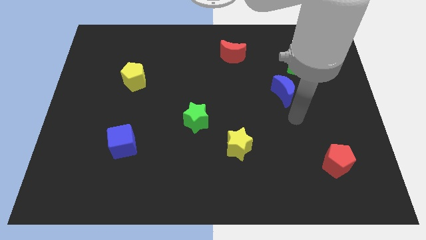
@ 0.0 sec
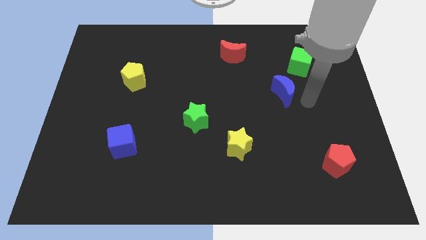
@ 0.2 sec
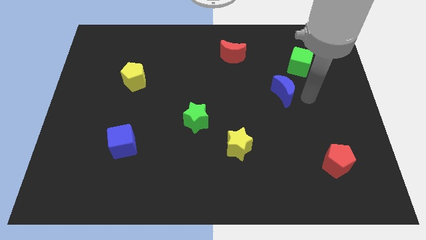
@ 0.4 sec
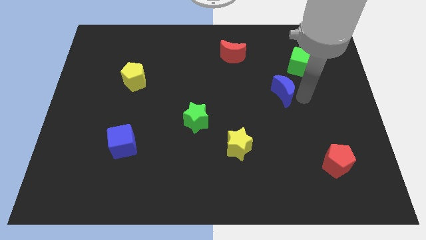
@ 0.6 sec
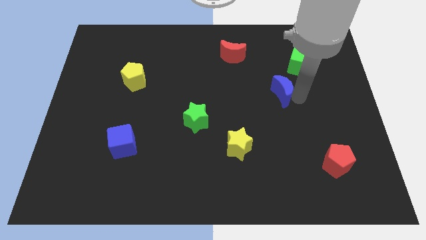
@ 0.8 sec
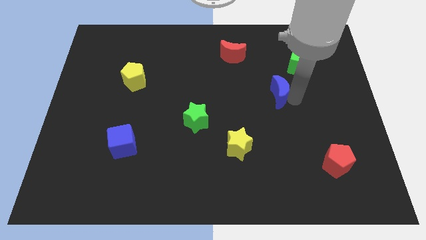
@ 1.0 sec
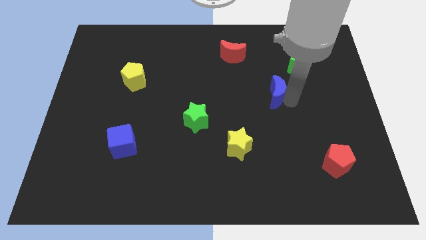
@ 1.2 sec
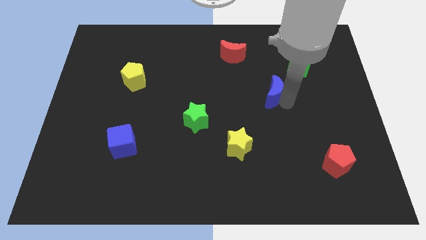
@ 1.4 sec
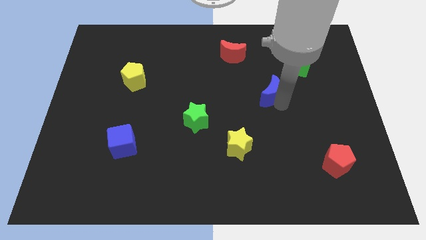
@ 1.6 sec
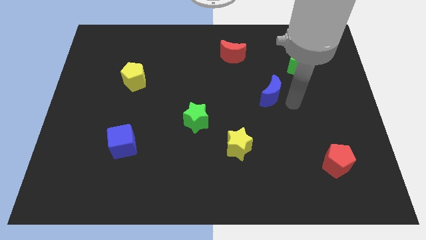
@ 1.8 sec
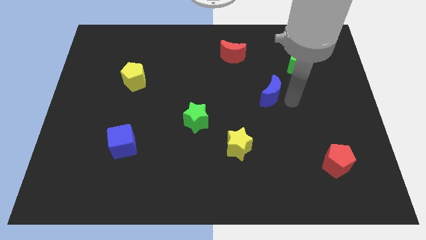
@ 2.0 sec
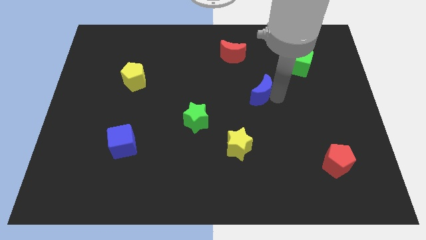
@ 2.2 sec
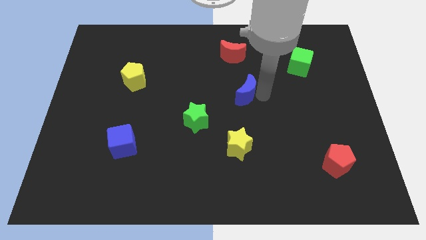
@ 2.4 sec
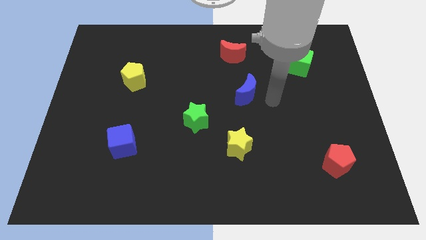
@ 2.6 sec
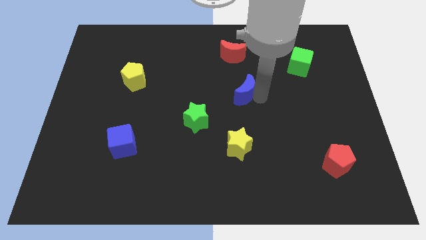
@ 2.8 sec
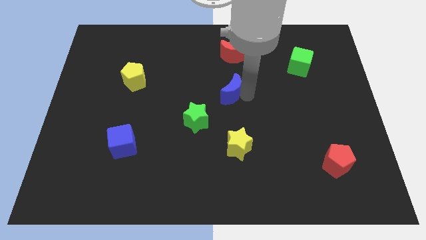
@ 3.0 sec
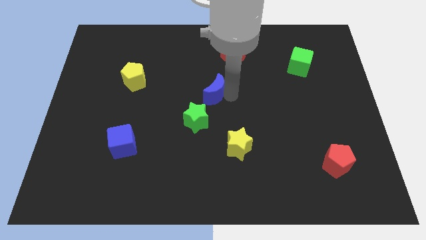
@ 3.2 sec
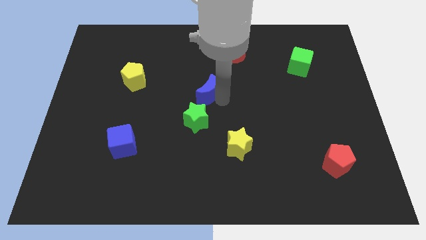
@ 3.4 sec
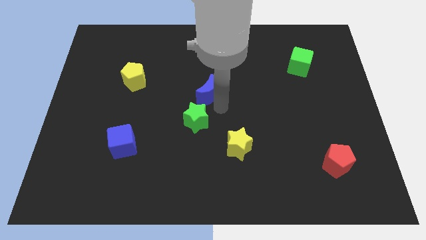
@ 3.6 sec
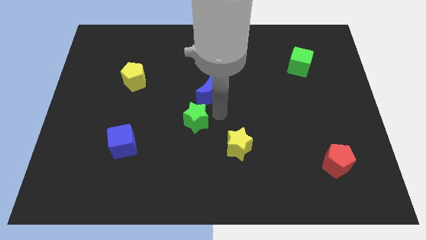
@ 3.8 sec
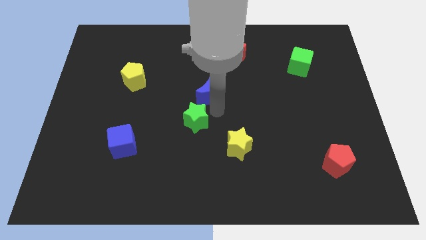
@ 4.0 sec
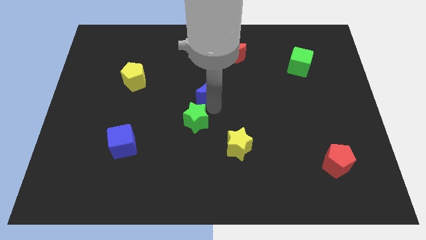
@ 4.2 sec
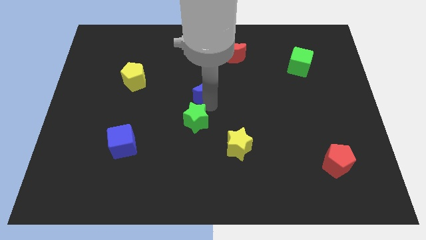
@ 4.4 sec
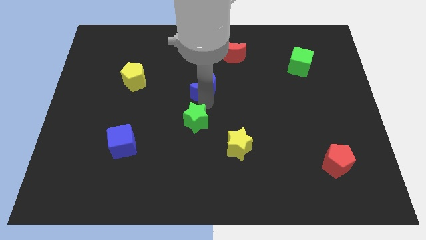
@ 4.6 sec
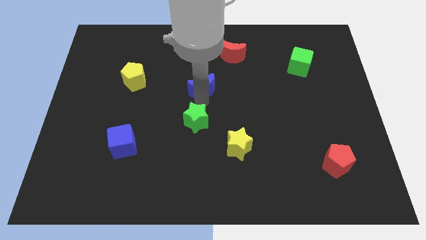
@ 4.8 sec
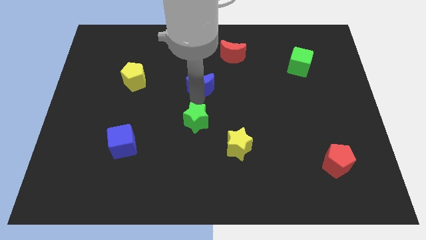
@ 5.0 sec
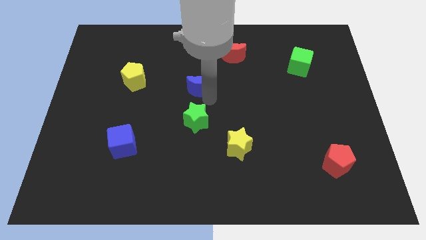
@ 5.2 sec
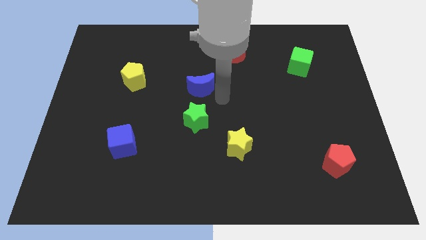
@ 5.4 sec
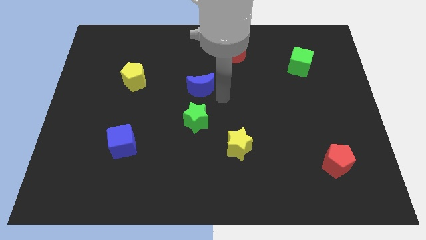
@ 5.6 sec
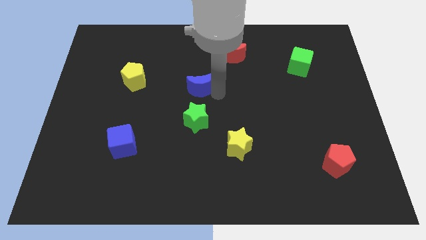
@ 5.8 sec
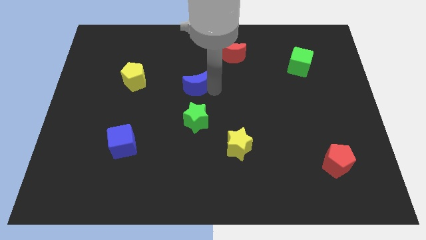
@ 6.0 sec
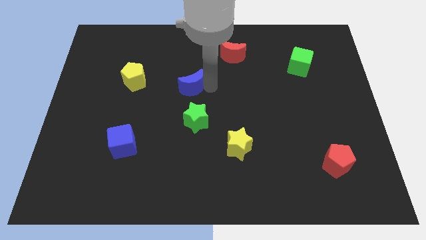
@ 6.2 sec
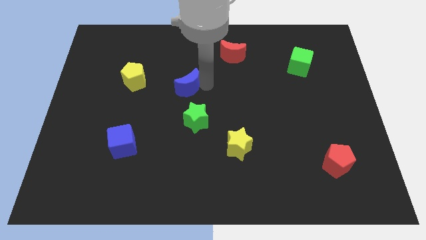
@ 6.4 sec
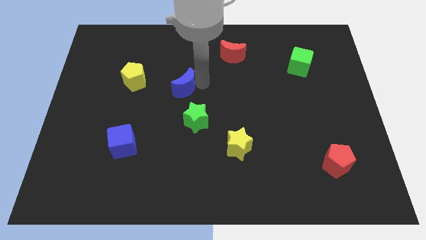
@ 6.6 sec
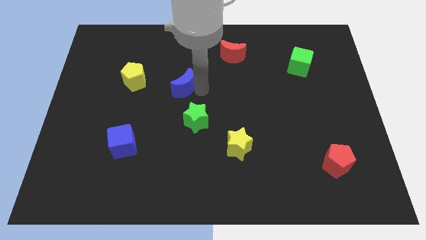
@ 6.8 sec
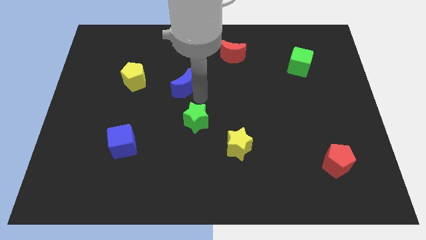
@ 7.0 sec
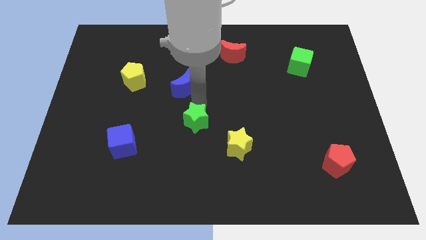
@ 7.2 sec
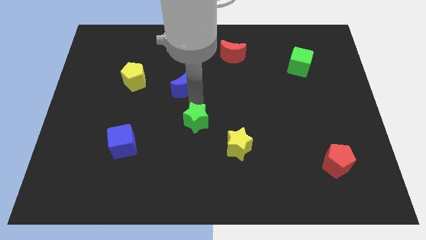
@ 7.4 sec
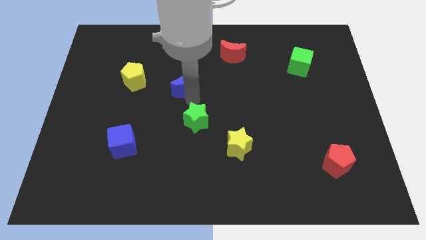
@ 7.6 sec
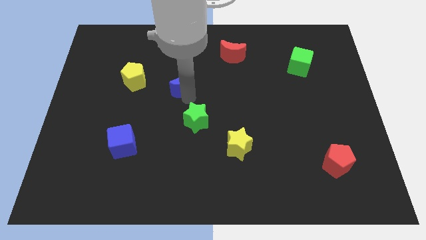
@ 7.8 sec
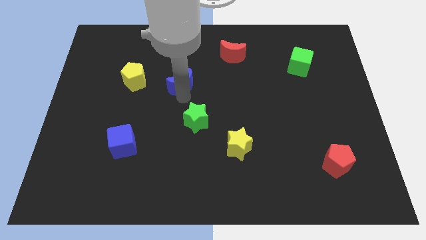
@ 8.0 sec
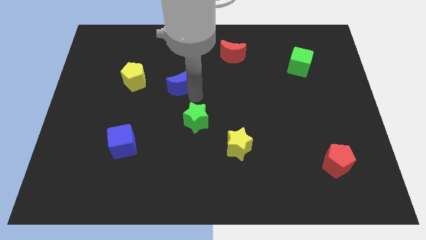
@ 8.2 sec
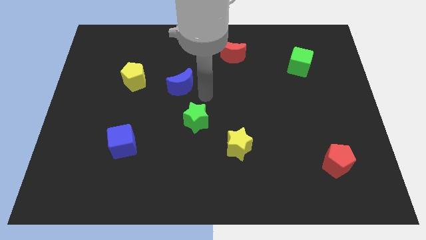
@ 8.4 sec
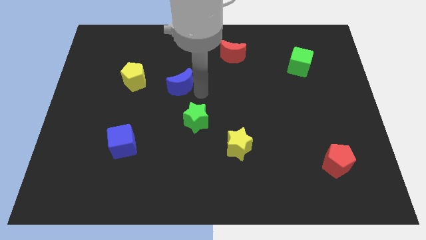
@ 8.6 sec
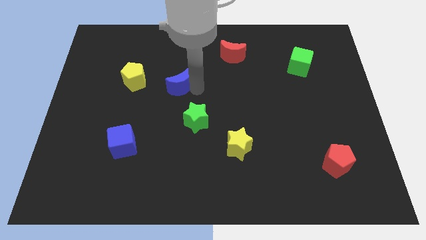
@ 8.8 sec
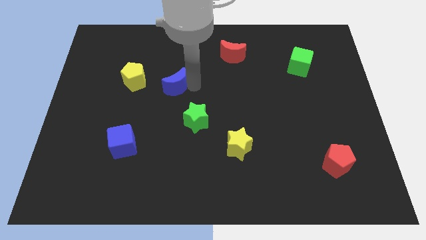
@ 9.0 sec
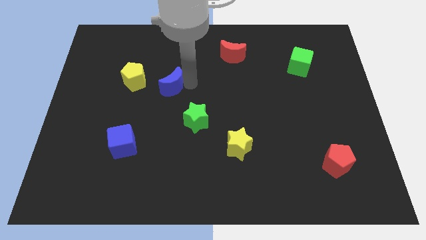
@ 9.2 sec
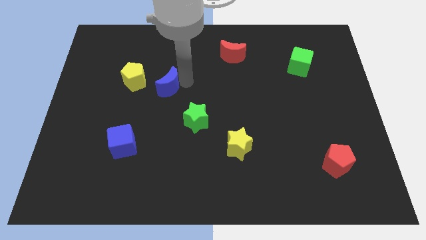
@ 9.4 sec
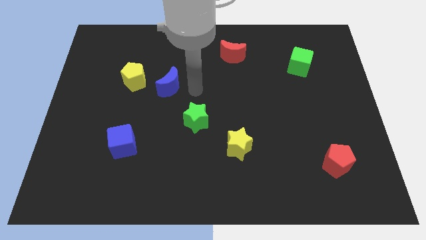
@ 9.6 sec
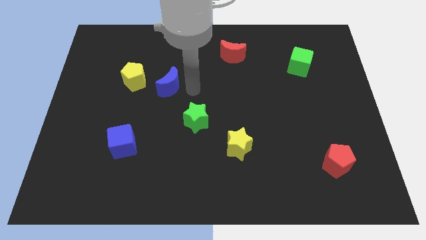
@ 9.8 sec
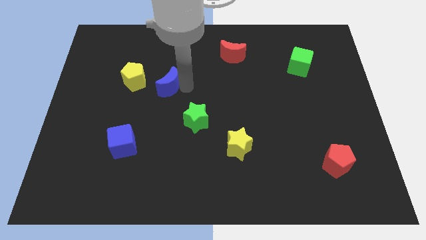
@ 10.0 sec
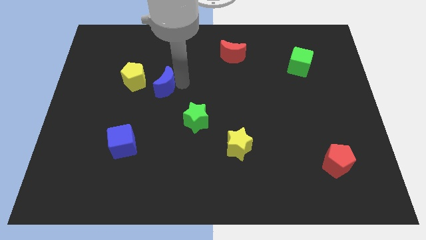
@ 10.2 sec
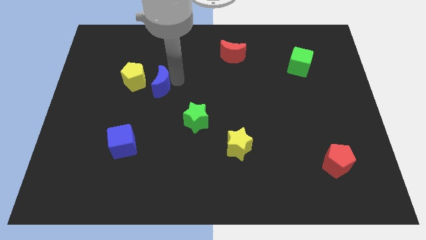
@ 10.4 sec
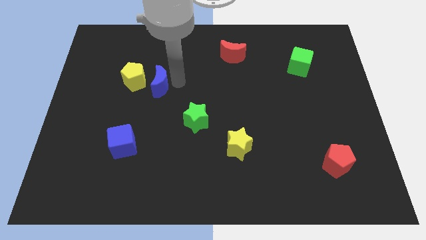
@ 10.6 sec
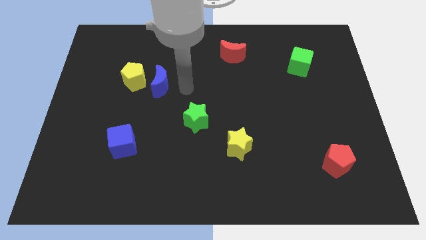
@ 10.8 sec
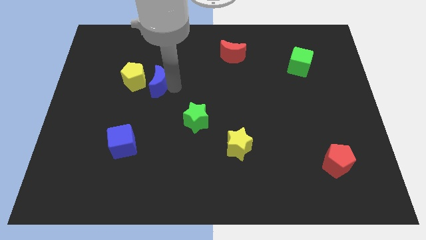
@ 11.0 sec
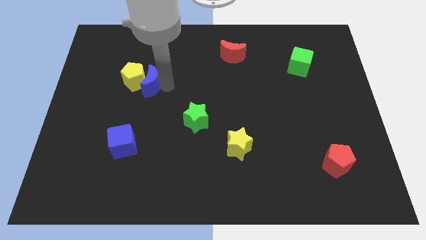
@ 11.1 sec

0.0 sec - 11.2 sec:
move the blue moon towards the yellow pentagon

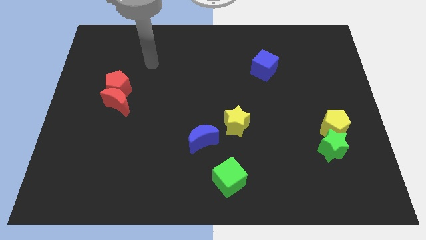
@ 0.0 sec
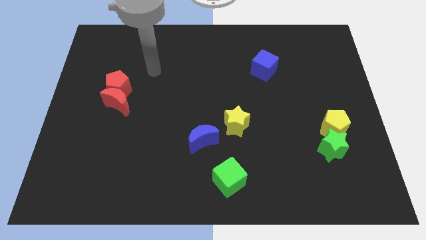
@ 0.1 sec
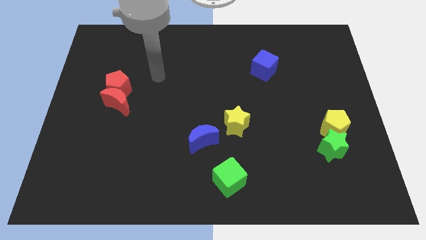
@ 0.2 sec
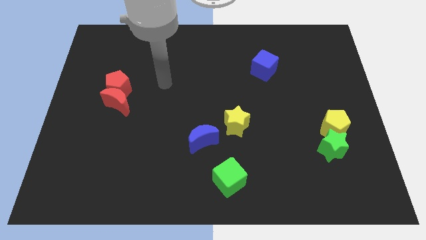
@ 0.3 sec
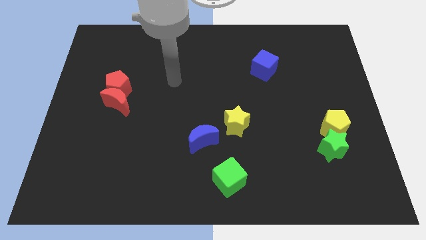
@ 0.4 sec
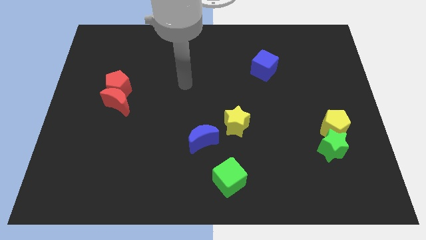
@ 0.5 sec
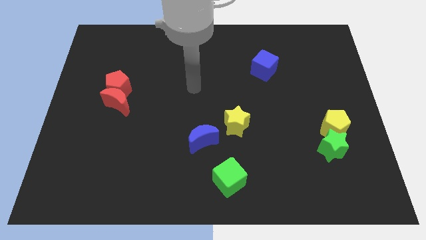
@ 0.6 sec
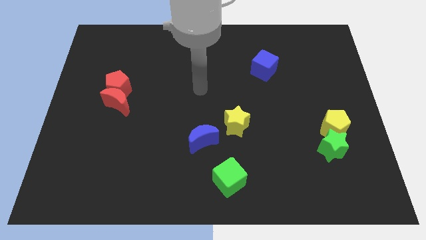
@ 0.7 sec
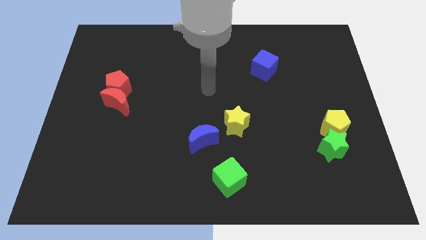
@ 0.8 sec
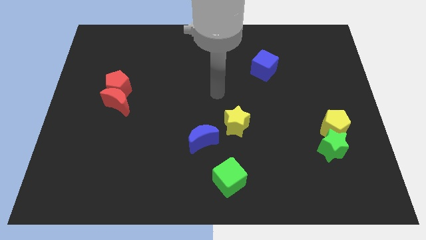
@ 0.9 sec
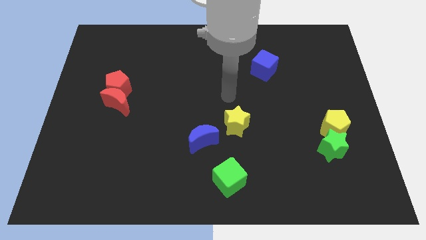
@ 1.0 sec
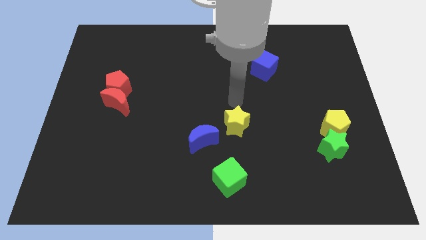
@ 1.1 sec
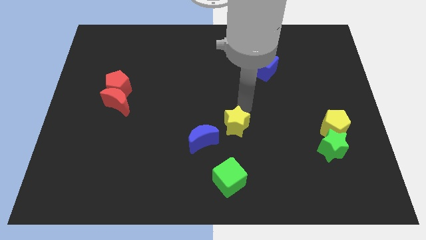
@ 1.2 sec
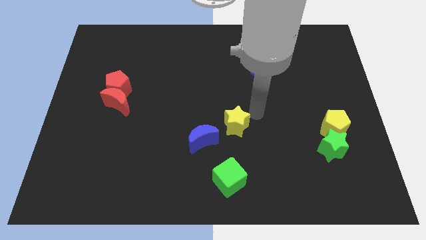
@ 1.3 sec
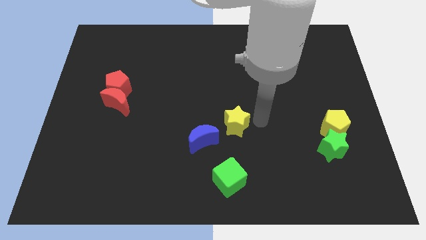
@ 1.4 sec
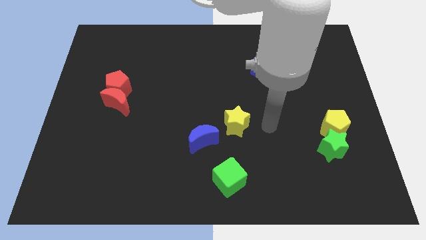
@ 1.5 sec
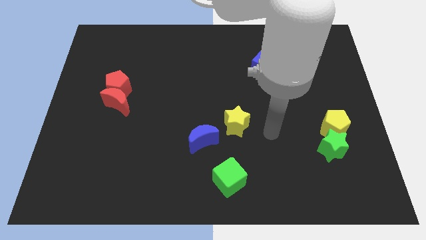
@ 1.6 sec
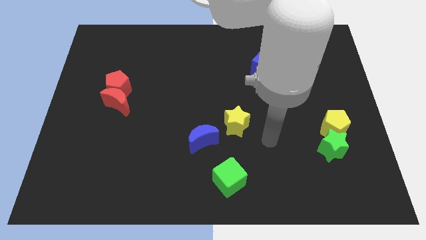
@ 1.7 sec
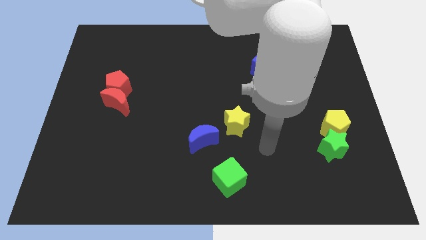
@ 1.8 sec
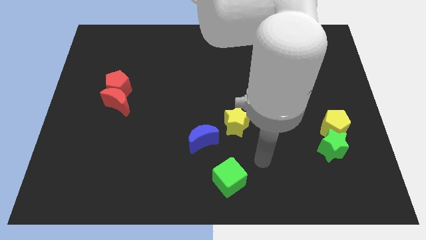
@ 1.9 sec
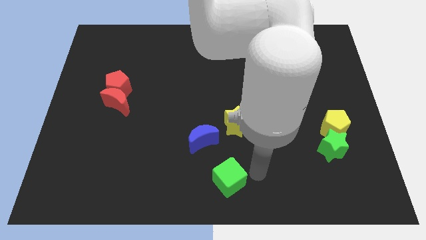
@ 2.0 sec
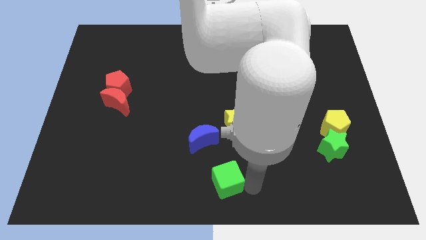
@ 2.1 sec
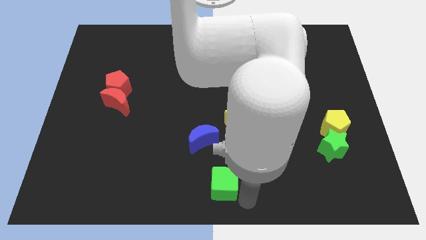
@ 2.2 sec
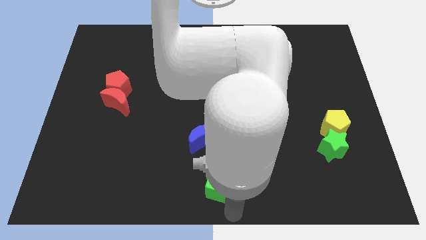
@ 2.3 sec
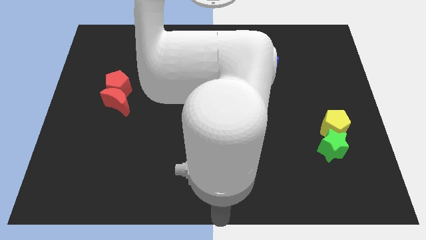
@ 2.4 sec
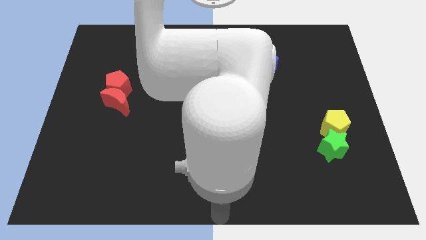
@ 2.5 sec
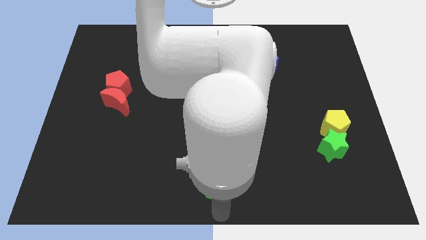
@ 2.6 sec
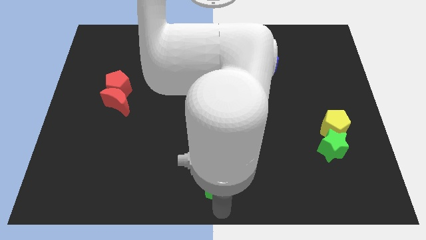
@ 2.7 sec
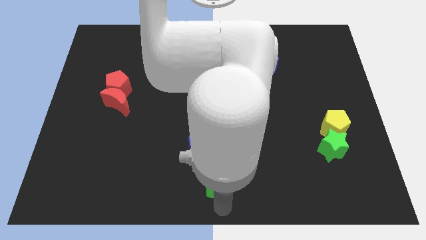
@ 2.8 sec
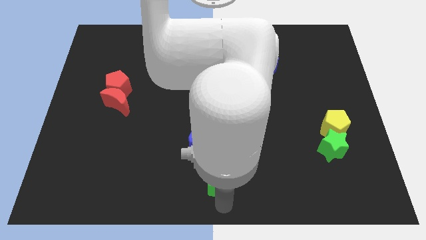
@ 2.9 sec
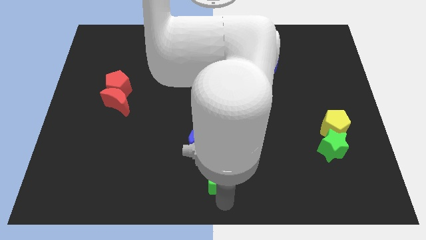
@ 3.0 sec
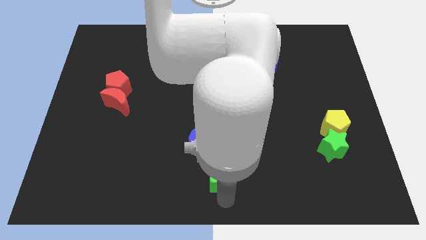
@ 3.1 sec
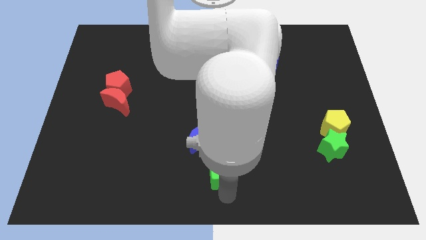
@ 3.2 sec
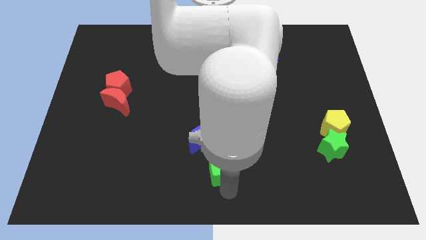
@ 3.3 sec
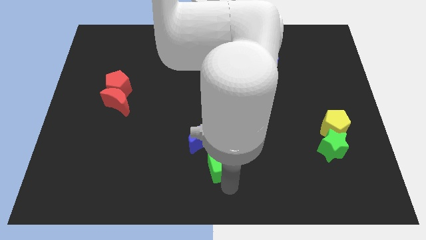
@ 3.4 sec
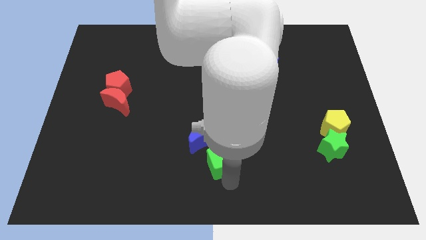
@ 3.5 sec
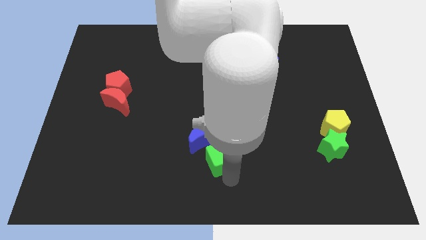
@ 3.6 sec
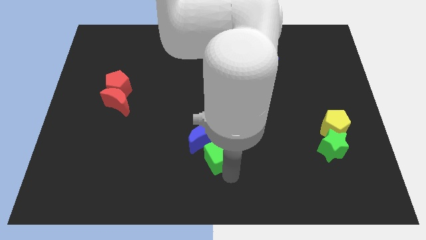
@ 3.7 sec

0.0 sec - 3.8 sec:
slide the green cube to the blue moon
